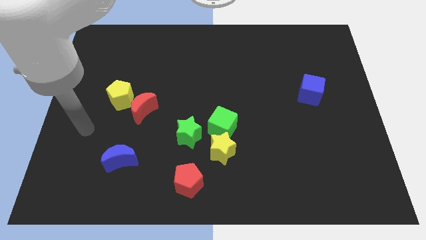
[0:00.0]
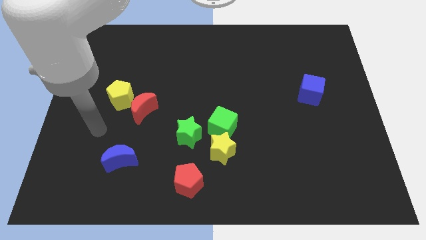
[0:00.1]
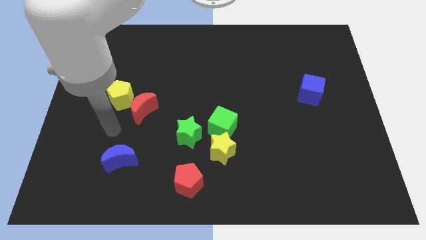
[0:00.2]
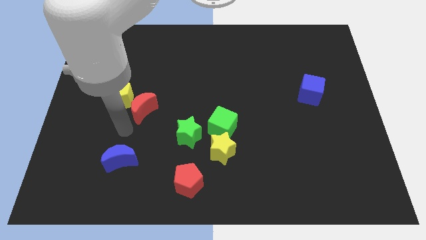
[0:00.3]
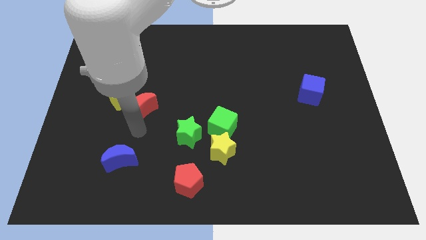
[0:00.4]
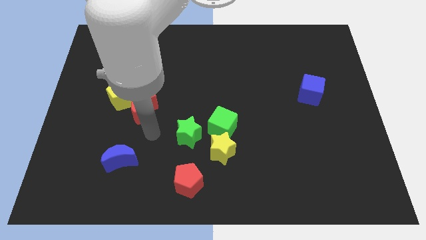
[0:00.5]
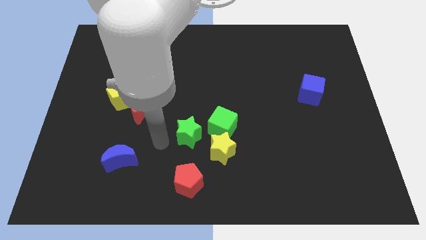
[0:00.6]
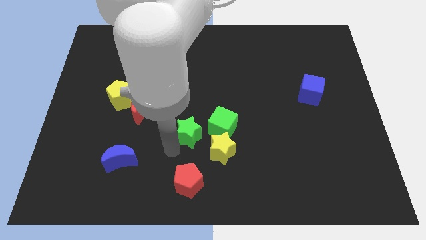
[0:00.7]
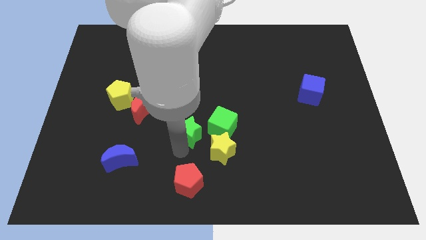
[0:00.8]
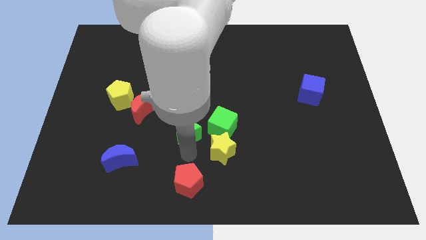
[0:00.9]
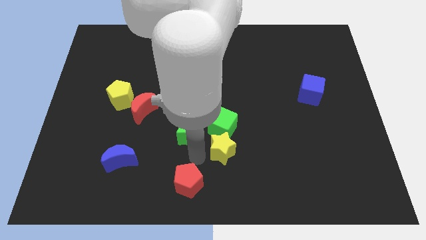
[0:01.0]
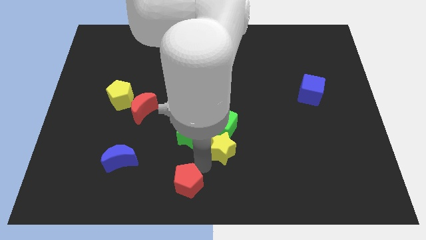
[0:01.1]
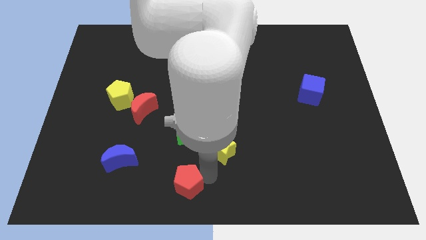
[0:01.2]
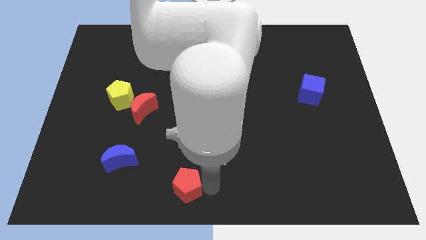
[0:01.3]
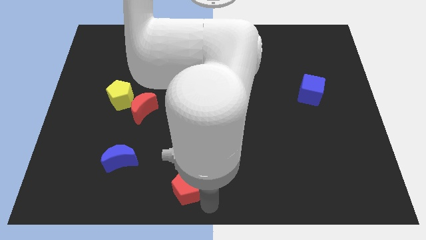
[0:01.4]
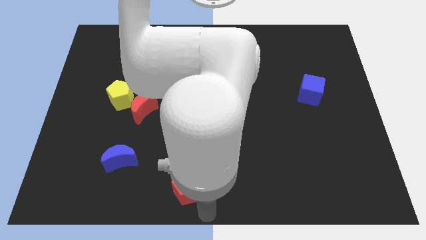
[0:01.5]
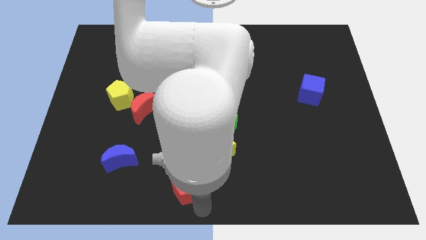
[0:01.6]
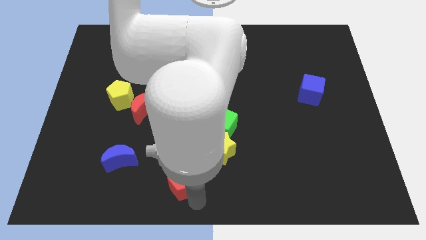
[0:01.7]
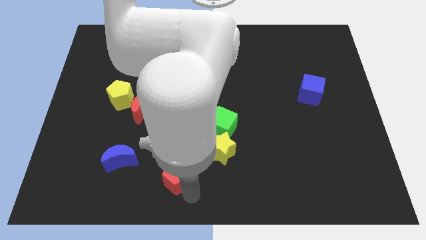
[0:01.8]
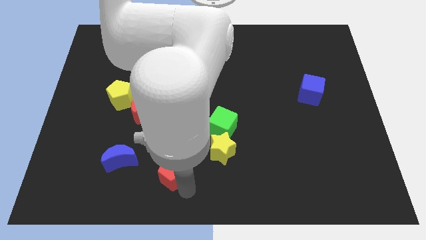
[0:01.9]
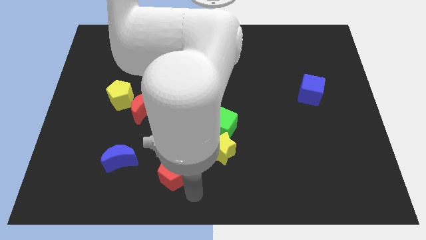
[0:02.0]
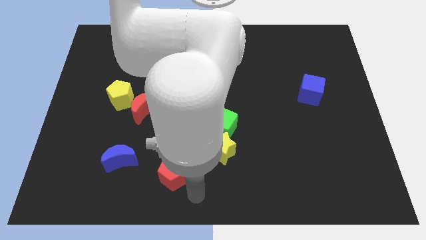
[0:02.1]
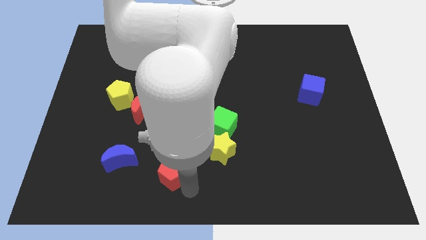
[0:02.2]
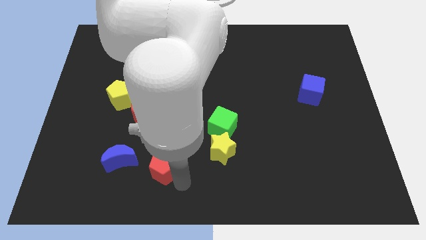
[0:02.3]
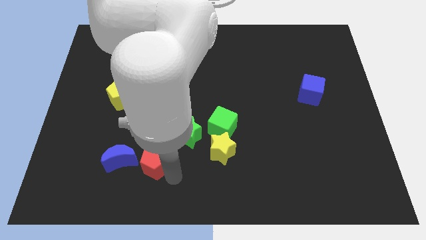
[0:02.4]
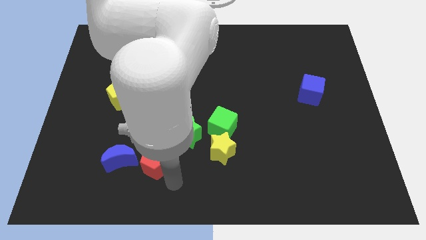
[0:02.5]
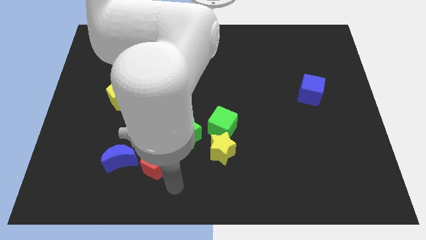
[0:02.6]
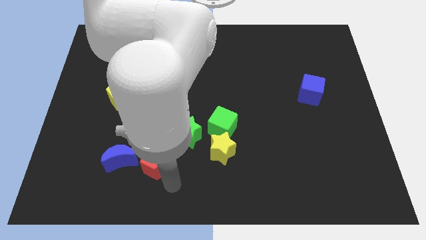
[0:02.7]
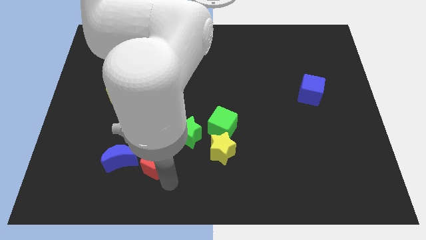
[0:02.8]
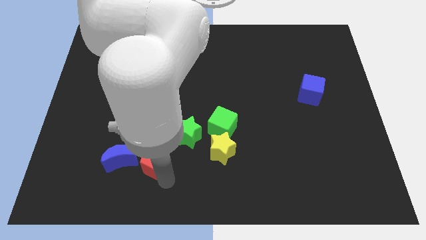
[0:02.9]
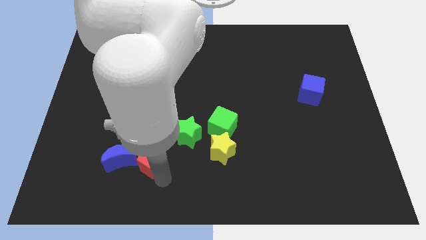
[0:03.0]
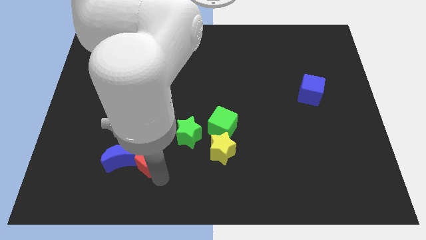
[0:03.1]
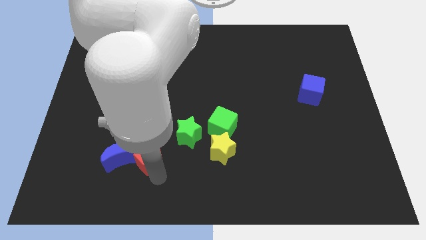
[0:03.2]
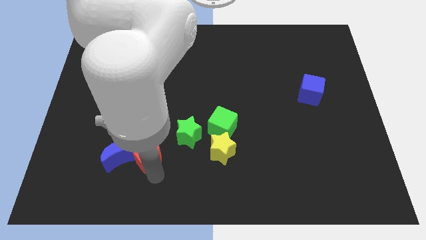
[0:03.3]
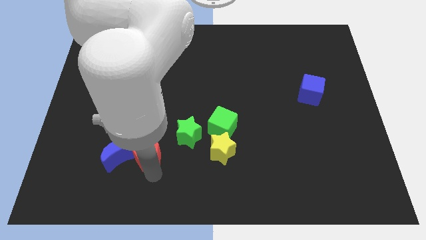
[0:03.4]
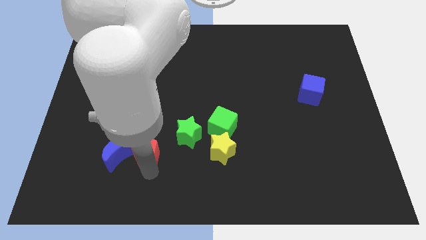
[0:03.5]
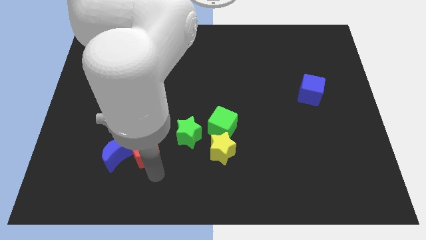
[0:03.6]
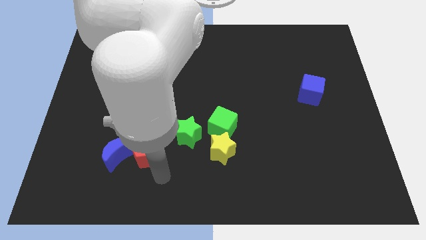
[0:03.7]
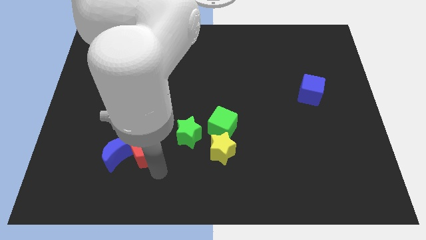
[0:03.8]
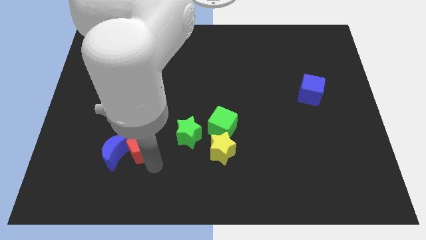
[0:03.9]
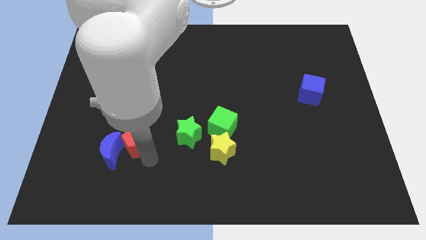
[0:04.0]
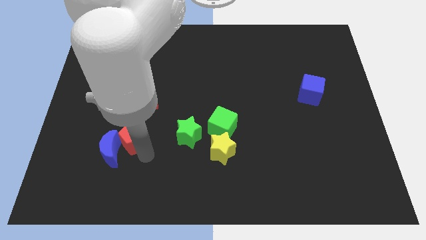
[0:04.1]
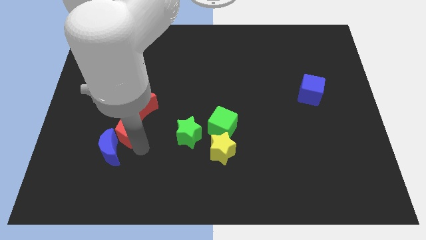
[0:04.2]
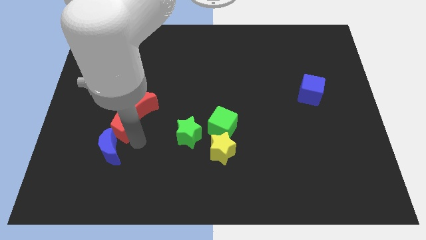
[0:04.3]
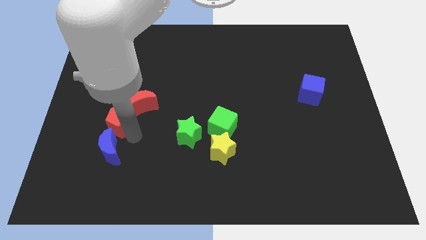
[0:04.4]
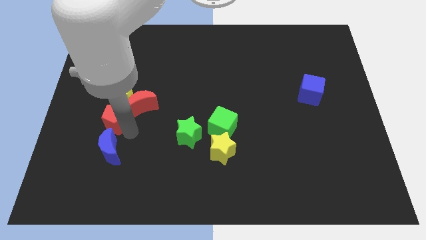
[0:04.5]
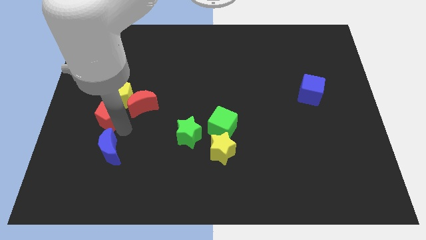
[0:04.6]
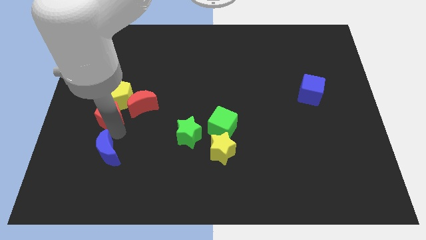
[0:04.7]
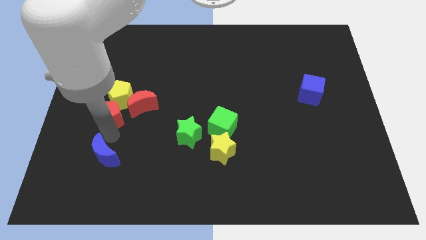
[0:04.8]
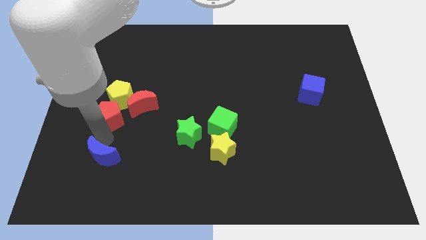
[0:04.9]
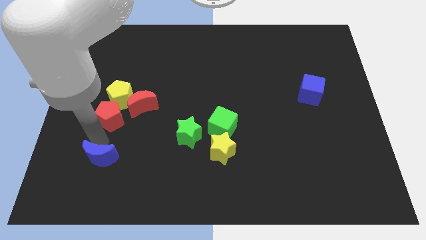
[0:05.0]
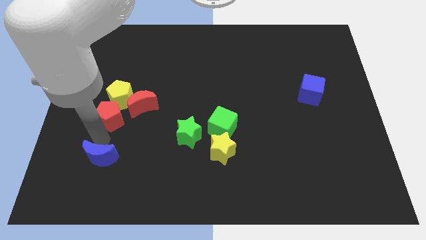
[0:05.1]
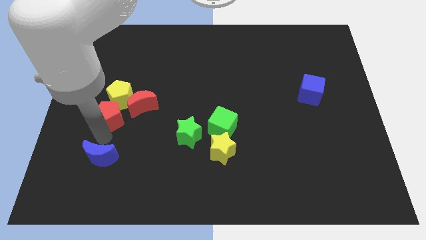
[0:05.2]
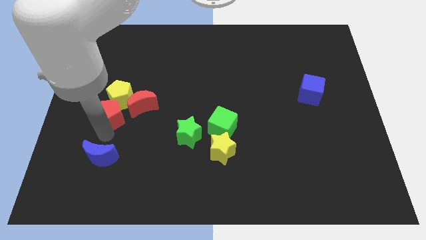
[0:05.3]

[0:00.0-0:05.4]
move the red pentagon close to the yellow pentagon
